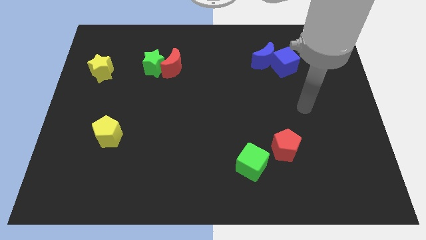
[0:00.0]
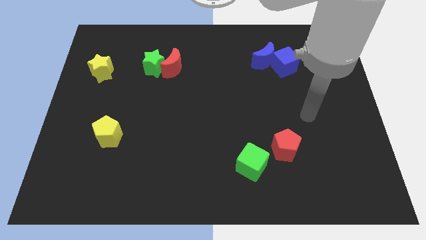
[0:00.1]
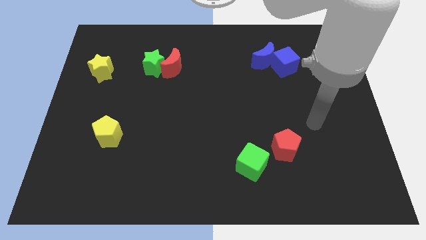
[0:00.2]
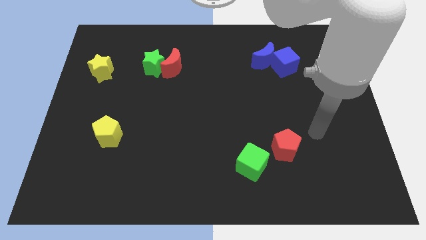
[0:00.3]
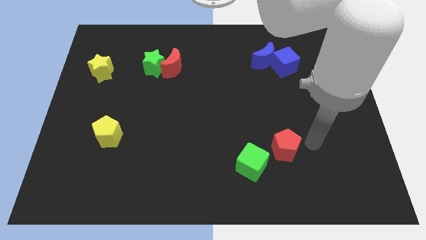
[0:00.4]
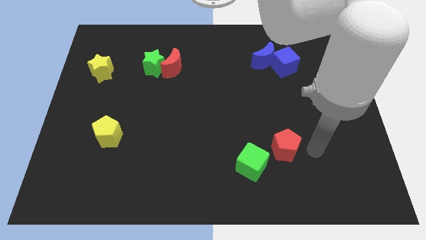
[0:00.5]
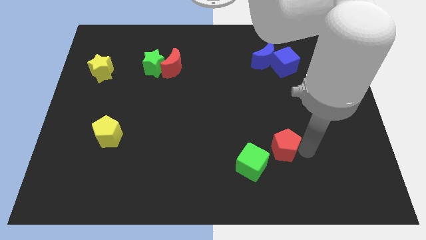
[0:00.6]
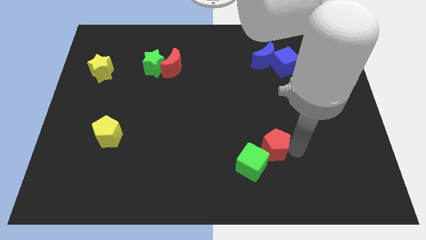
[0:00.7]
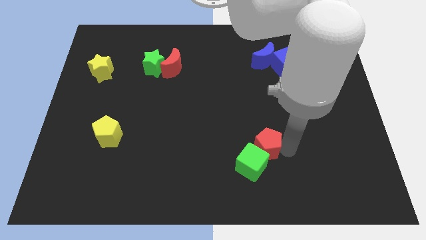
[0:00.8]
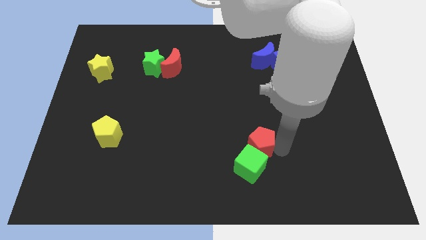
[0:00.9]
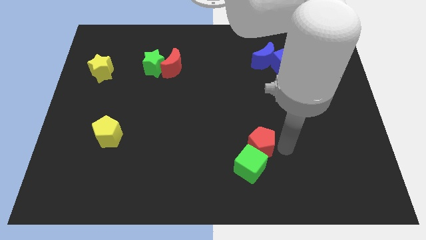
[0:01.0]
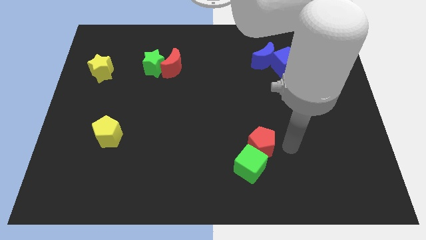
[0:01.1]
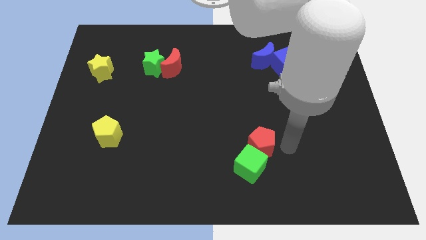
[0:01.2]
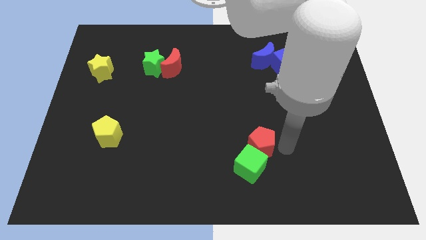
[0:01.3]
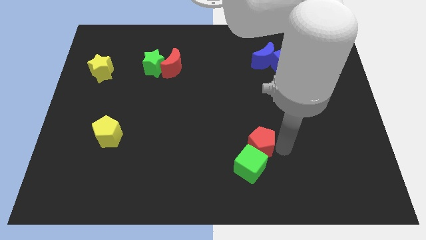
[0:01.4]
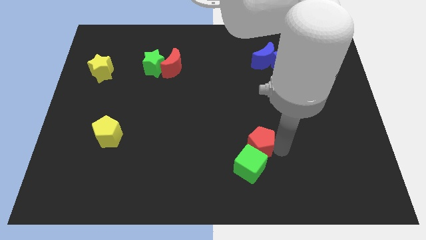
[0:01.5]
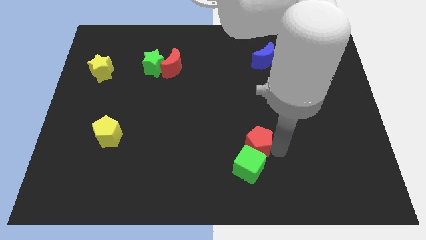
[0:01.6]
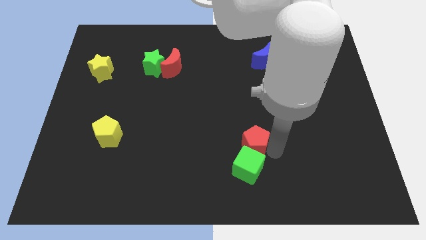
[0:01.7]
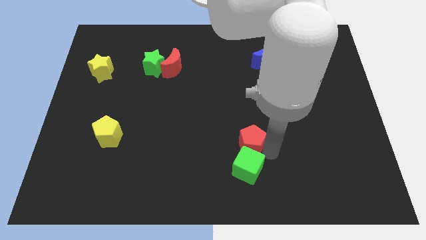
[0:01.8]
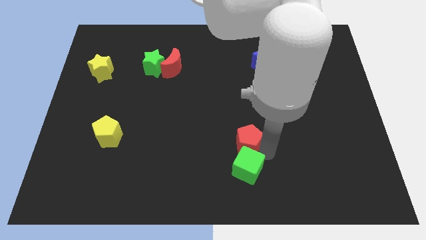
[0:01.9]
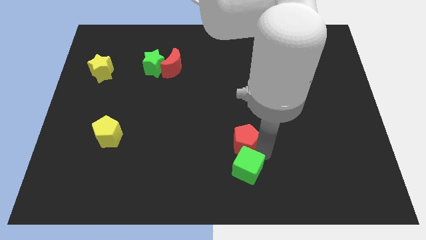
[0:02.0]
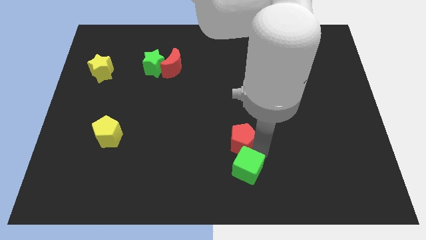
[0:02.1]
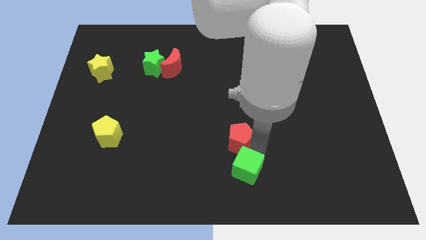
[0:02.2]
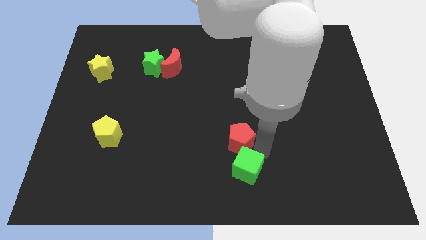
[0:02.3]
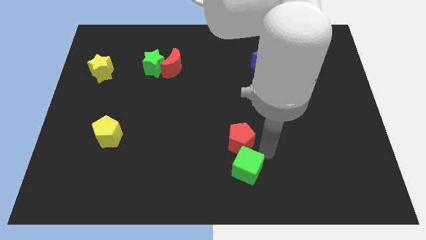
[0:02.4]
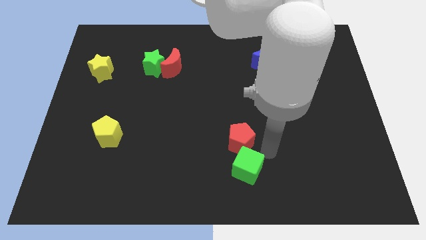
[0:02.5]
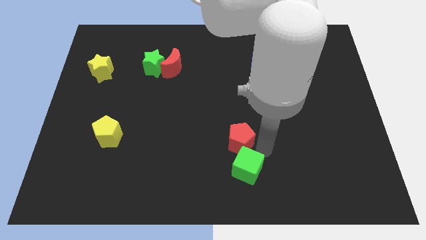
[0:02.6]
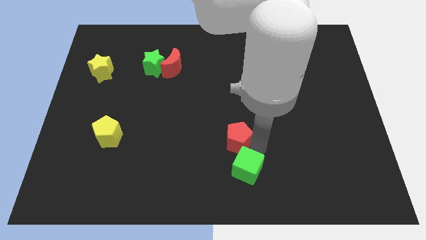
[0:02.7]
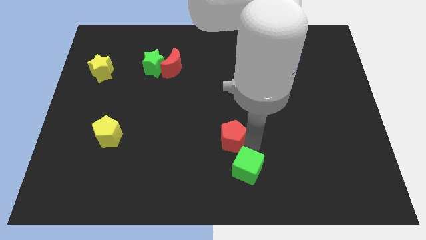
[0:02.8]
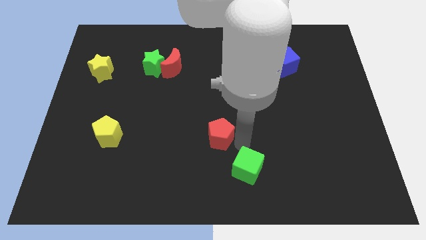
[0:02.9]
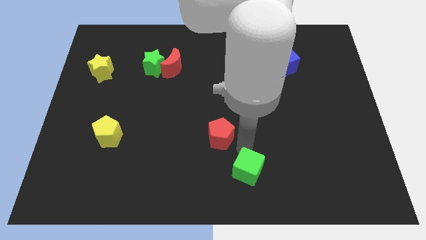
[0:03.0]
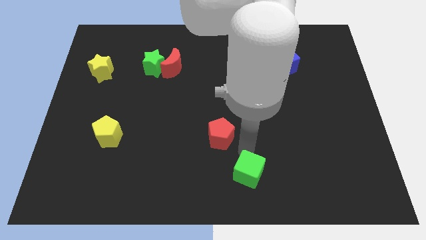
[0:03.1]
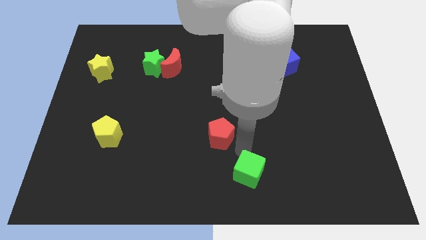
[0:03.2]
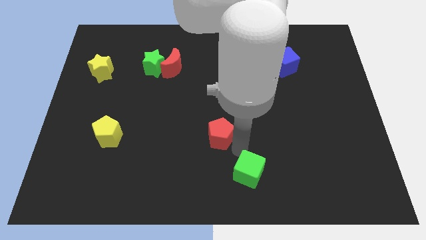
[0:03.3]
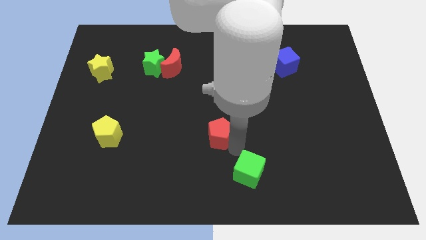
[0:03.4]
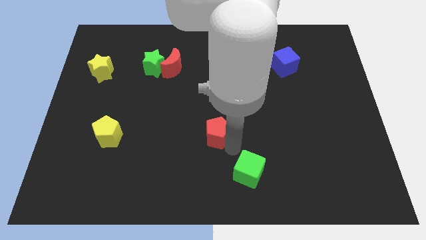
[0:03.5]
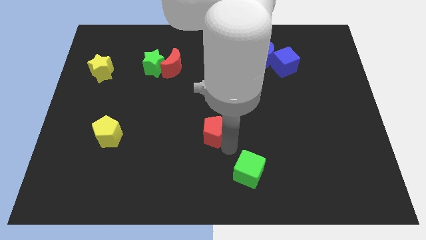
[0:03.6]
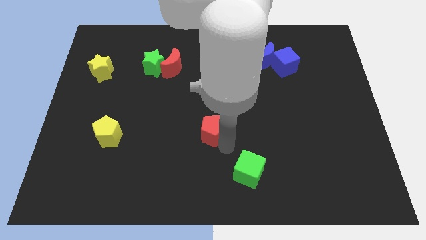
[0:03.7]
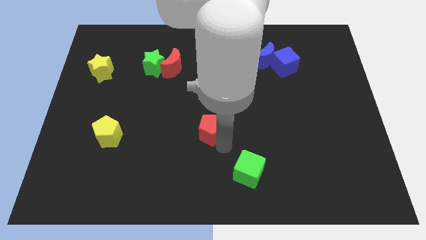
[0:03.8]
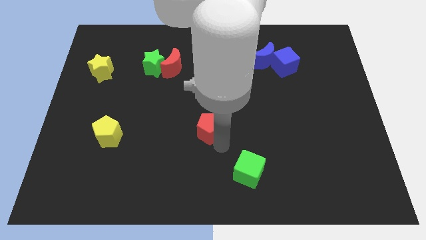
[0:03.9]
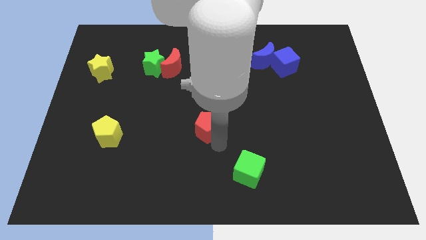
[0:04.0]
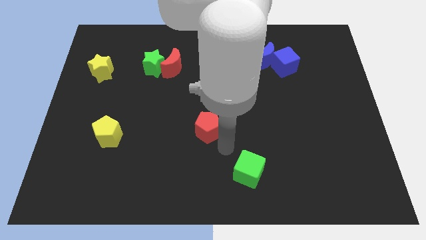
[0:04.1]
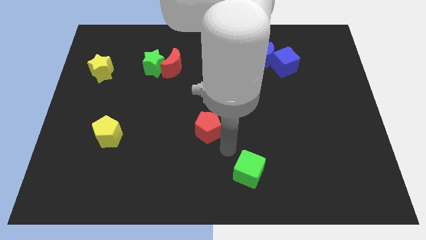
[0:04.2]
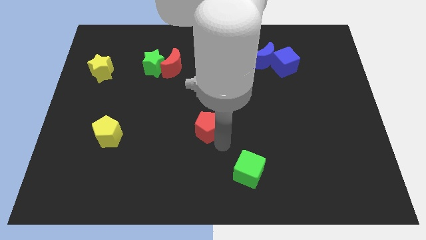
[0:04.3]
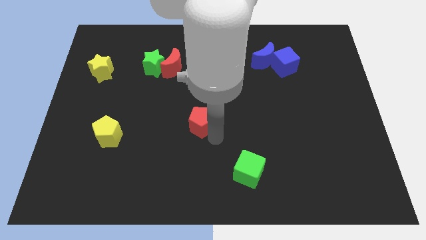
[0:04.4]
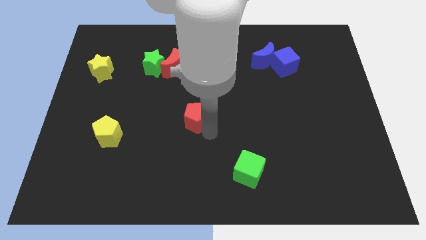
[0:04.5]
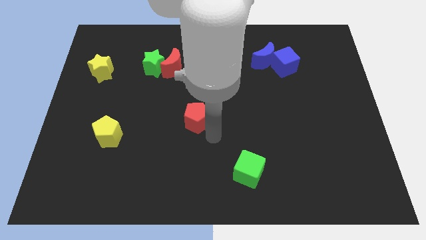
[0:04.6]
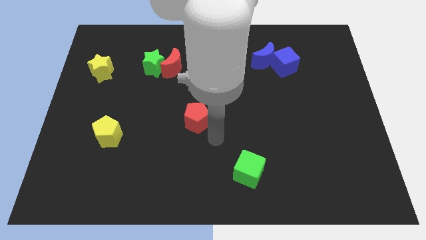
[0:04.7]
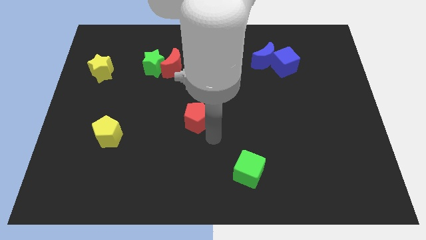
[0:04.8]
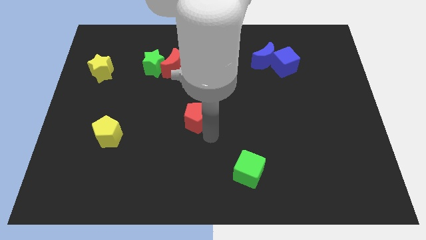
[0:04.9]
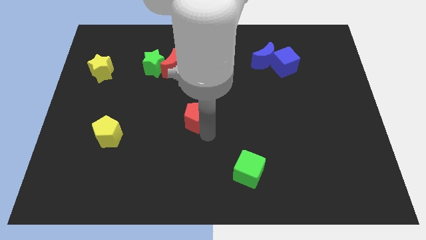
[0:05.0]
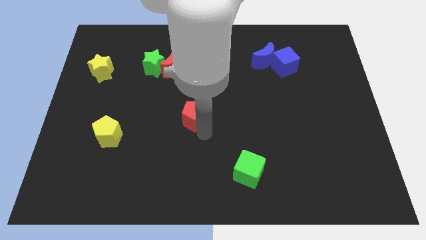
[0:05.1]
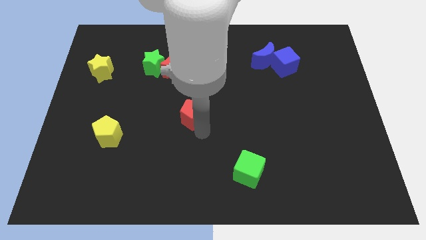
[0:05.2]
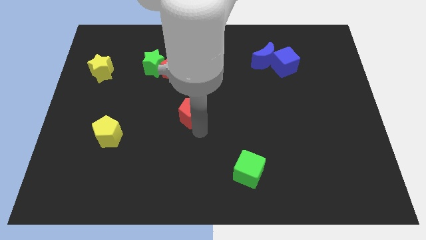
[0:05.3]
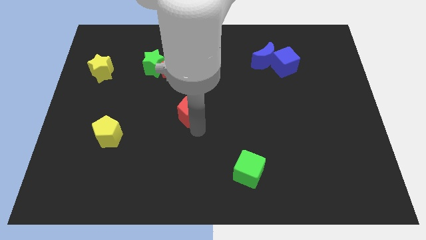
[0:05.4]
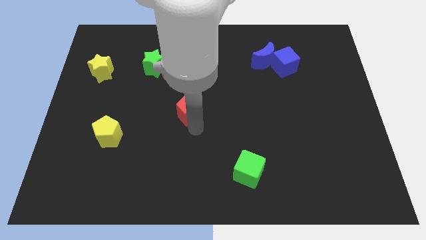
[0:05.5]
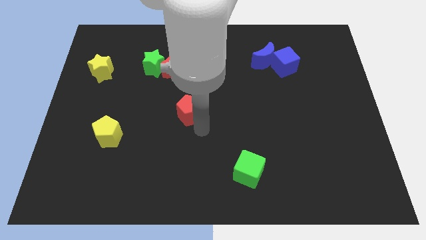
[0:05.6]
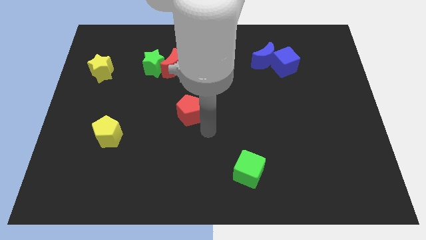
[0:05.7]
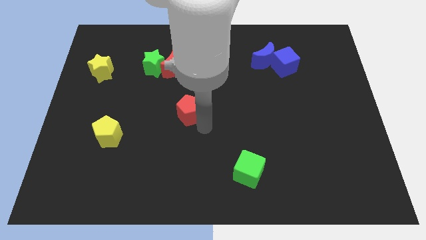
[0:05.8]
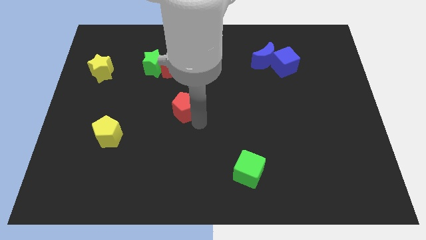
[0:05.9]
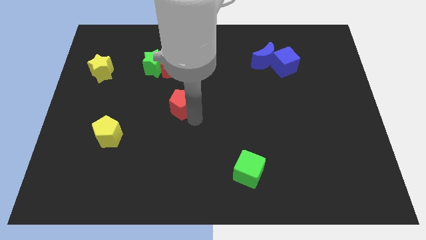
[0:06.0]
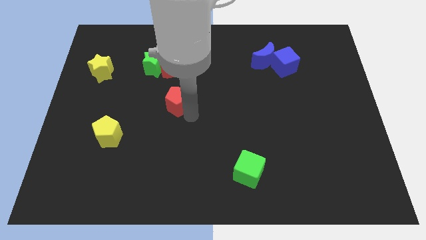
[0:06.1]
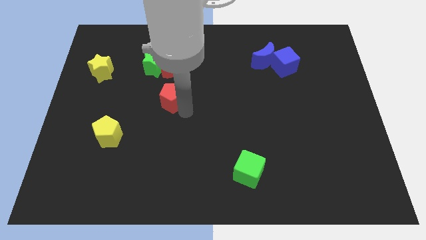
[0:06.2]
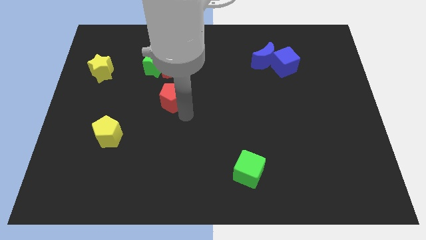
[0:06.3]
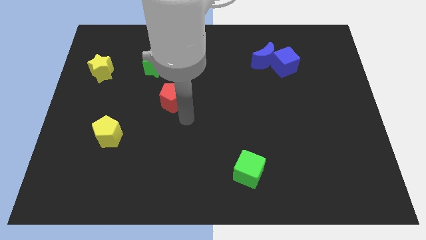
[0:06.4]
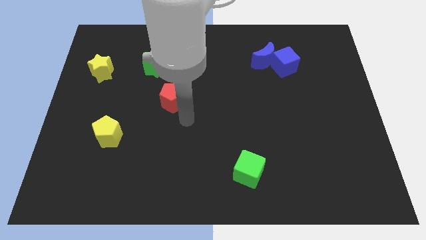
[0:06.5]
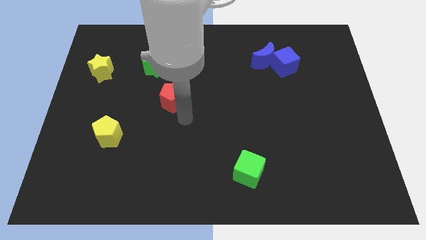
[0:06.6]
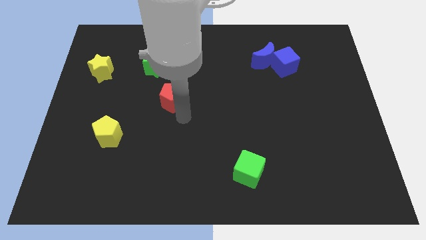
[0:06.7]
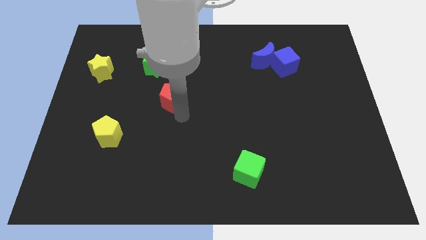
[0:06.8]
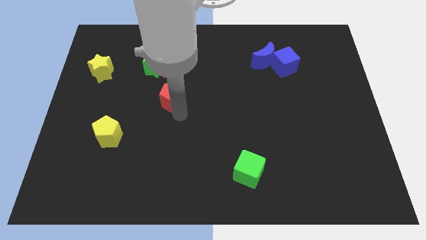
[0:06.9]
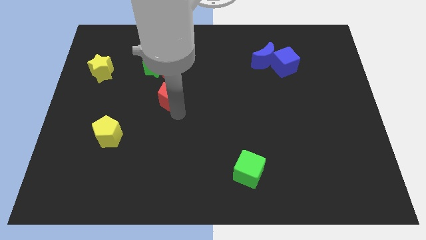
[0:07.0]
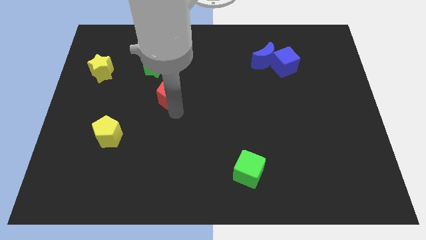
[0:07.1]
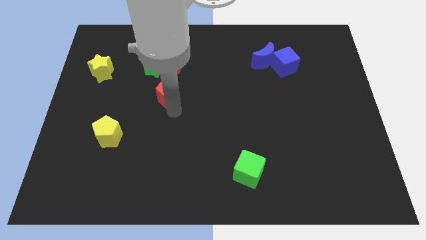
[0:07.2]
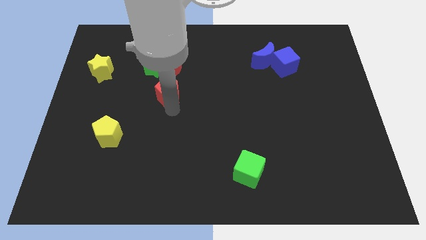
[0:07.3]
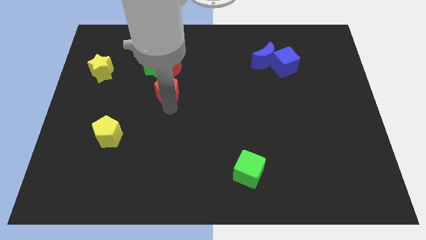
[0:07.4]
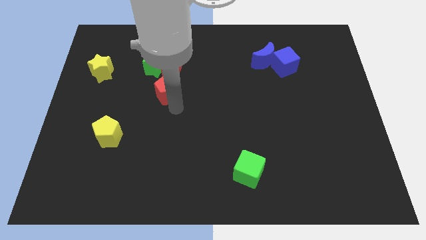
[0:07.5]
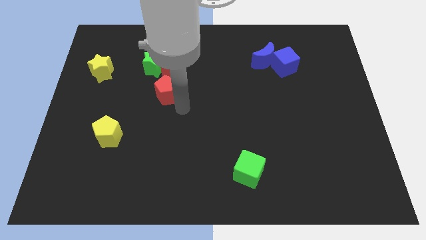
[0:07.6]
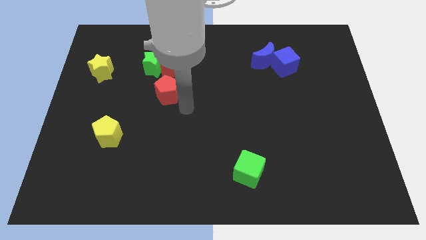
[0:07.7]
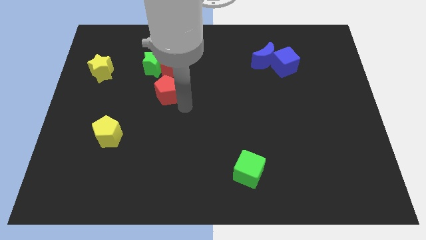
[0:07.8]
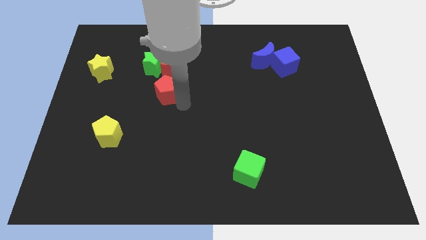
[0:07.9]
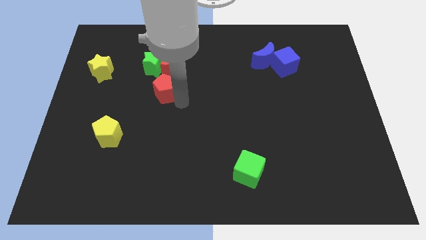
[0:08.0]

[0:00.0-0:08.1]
put the red pentagon to the bottom left of the red moon
